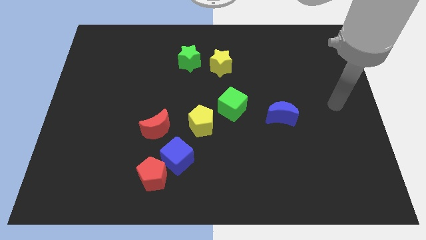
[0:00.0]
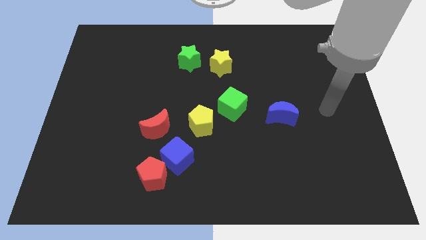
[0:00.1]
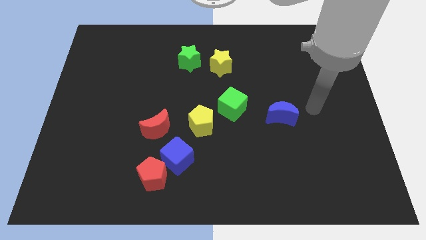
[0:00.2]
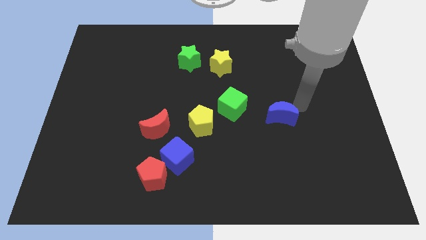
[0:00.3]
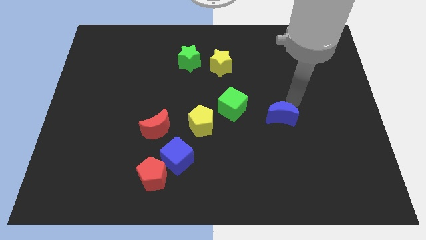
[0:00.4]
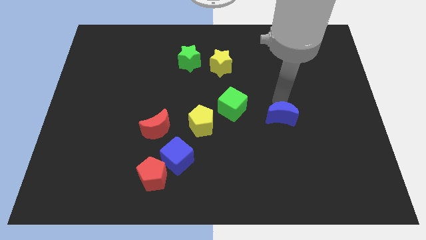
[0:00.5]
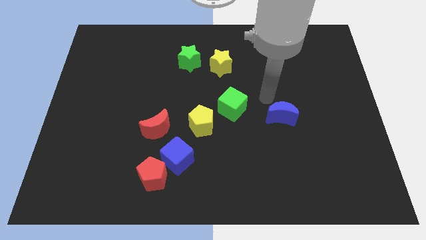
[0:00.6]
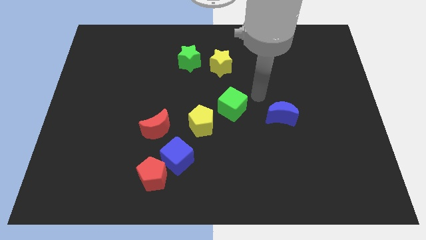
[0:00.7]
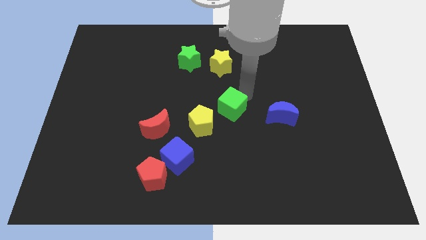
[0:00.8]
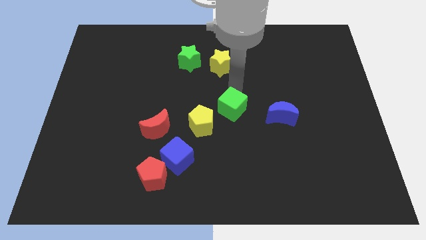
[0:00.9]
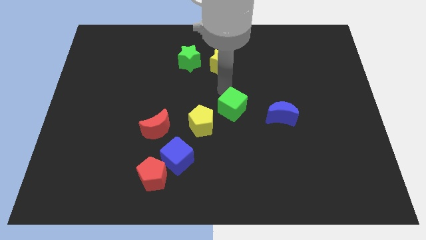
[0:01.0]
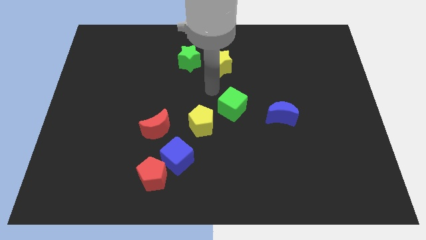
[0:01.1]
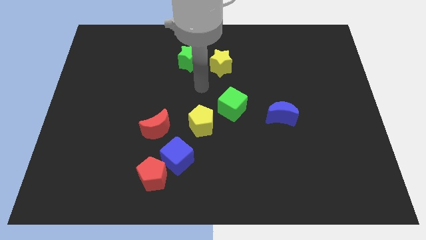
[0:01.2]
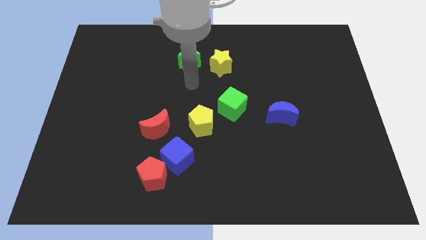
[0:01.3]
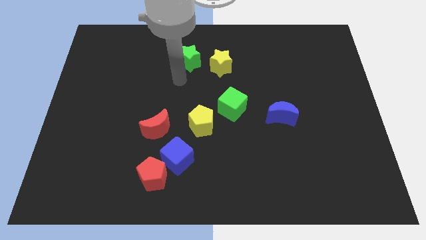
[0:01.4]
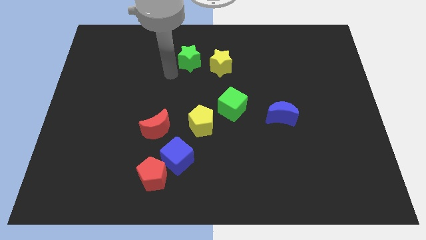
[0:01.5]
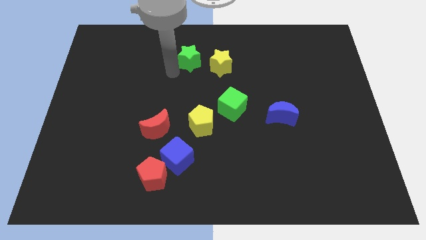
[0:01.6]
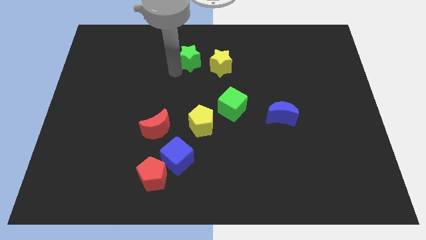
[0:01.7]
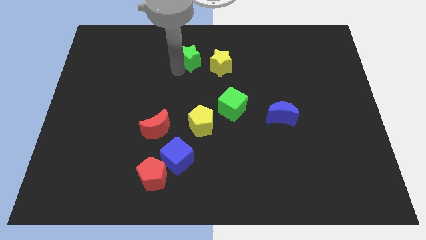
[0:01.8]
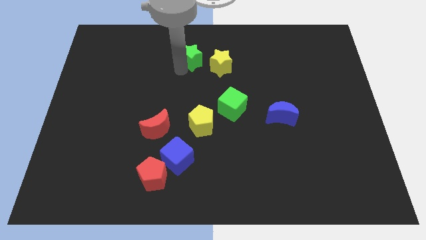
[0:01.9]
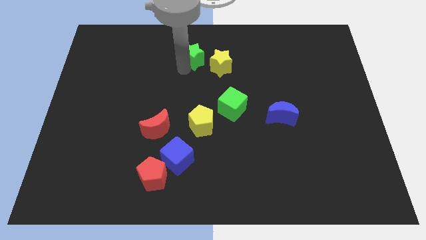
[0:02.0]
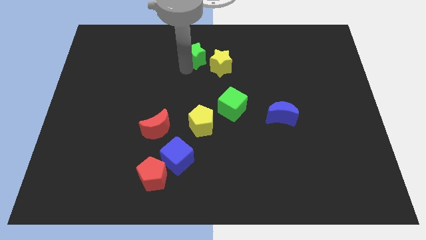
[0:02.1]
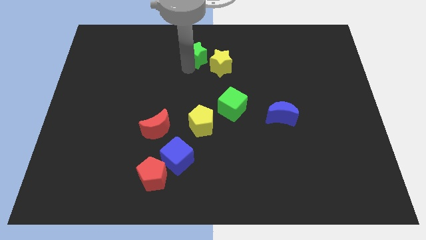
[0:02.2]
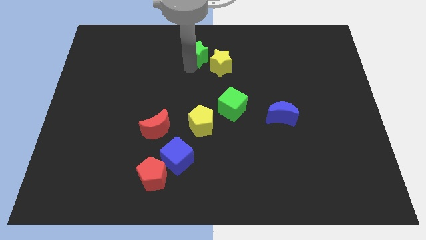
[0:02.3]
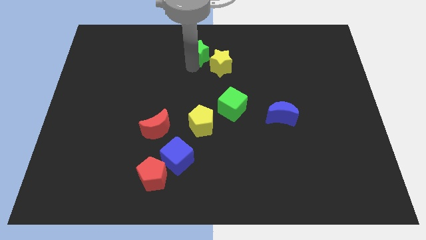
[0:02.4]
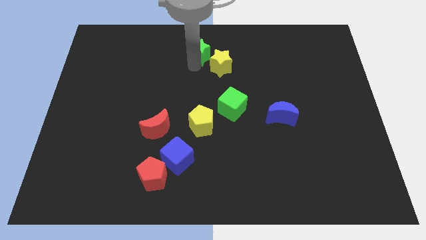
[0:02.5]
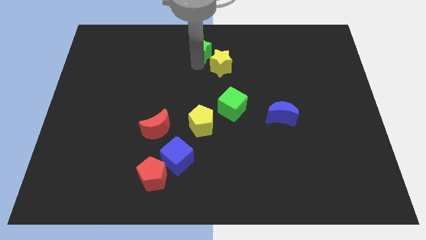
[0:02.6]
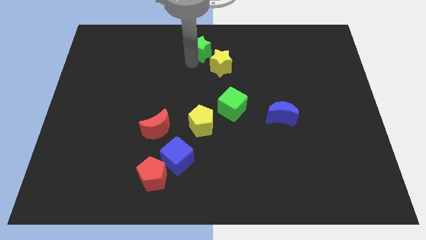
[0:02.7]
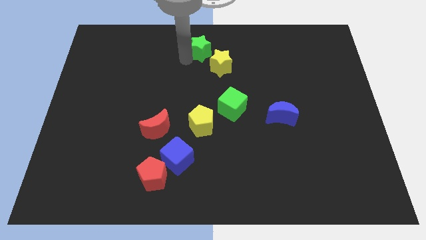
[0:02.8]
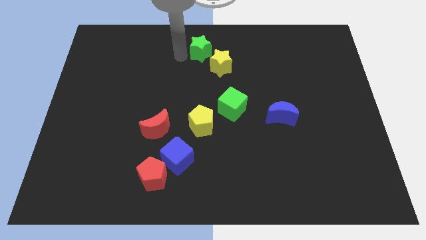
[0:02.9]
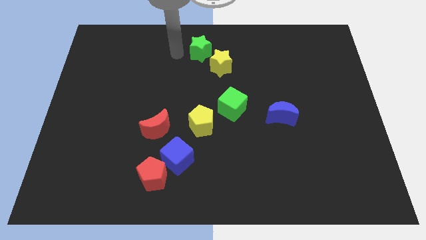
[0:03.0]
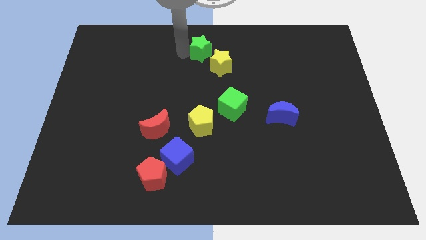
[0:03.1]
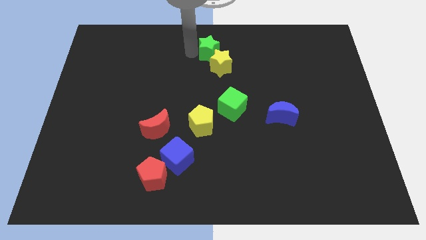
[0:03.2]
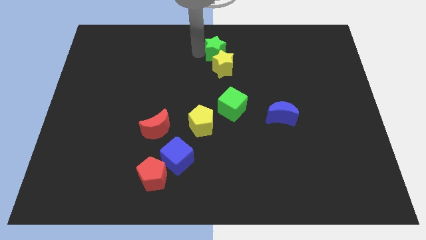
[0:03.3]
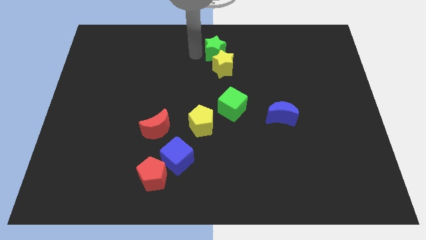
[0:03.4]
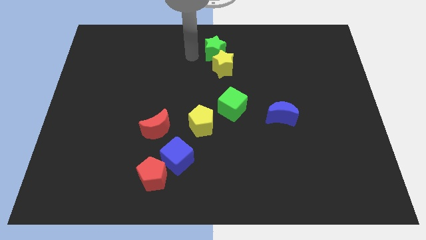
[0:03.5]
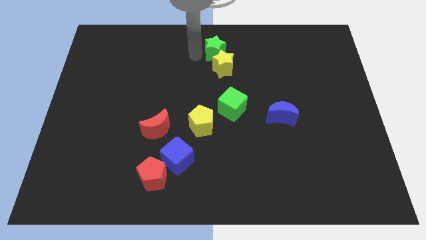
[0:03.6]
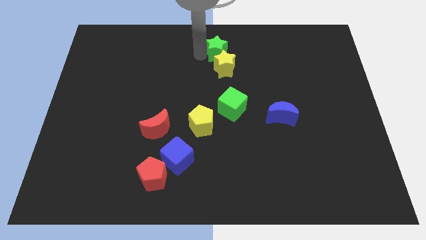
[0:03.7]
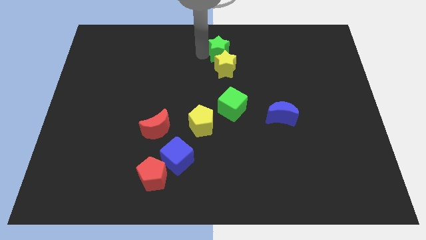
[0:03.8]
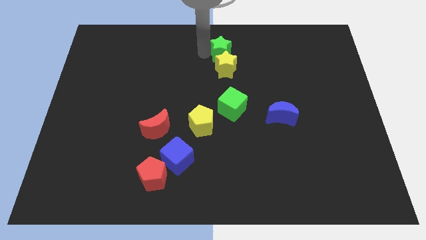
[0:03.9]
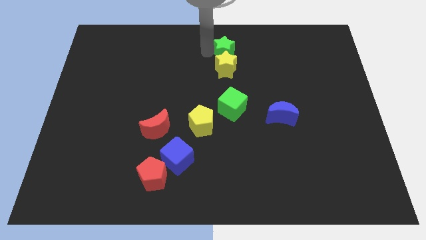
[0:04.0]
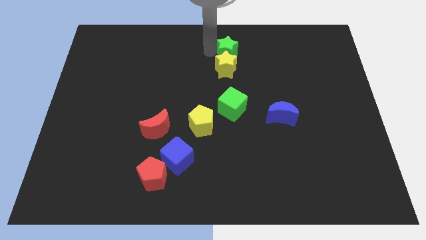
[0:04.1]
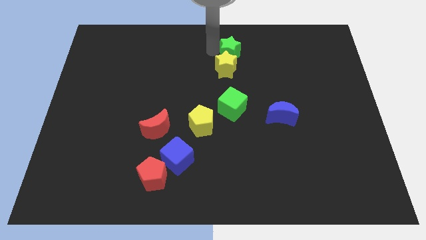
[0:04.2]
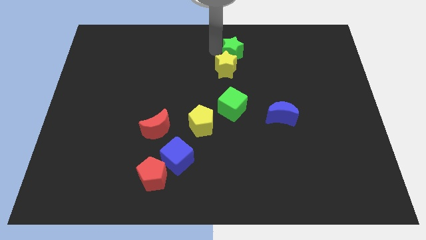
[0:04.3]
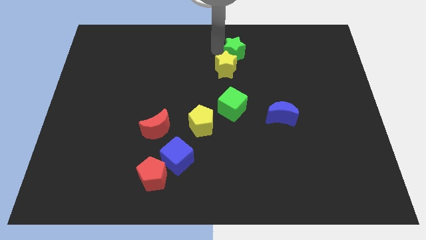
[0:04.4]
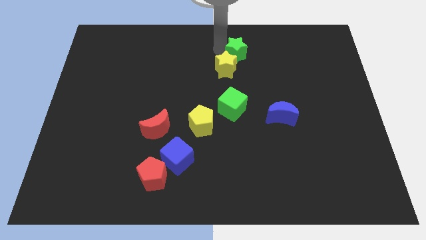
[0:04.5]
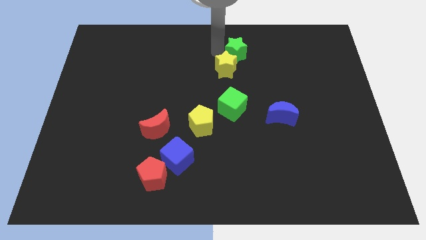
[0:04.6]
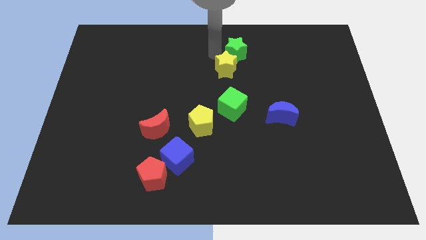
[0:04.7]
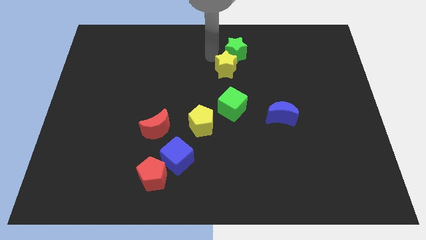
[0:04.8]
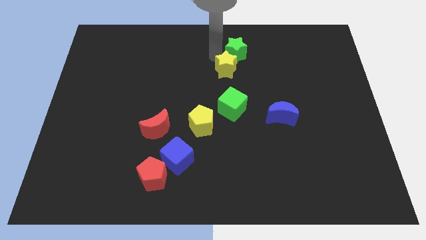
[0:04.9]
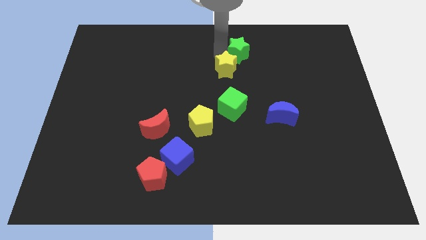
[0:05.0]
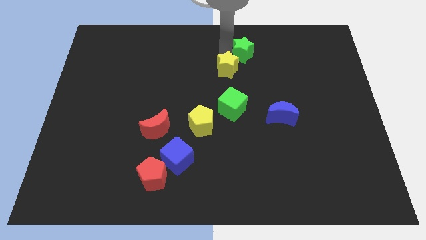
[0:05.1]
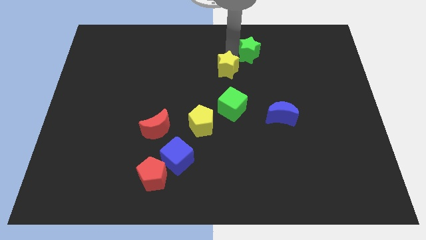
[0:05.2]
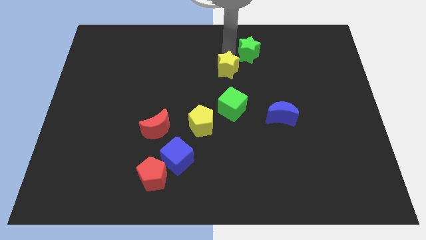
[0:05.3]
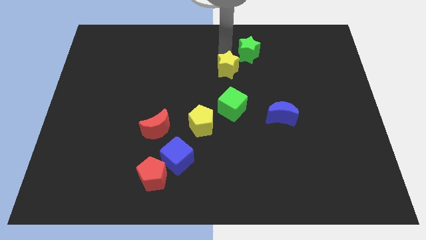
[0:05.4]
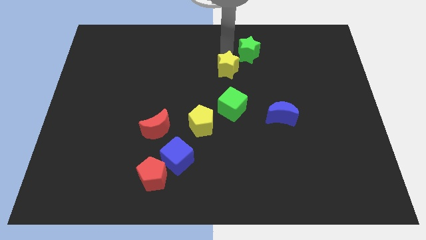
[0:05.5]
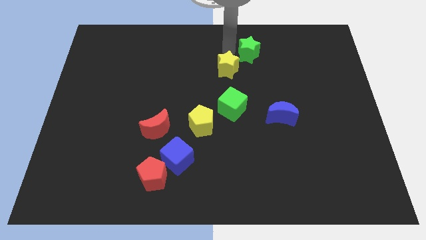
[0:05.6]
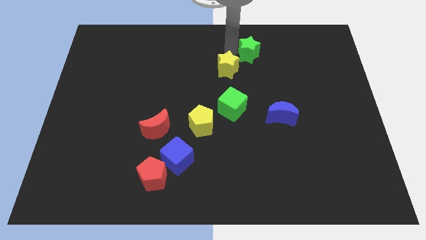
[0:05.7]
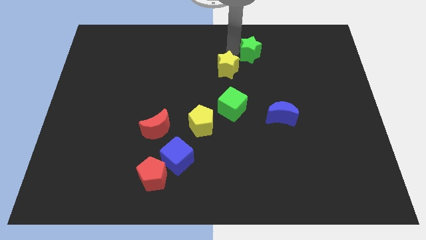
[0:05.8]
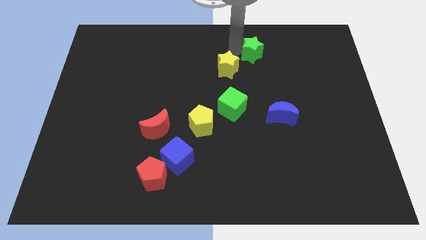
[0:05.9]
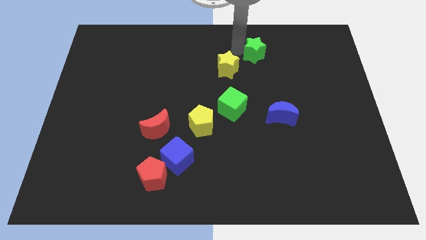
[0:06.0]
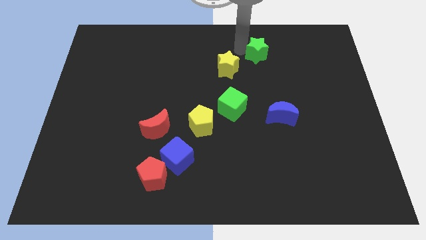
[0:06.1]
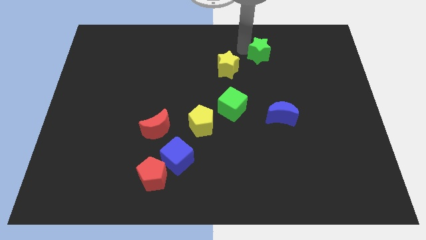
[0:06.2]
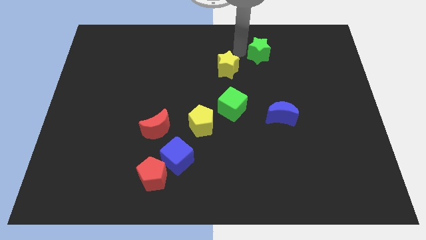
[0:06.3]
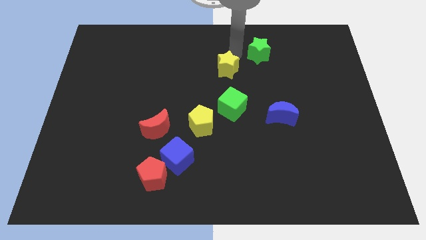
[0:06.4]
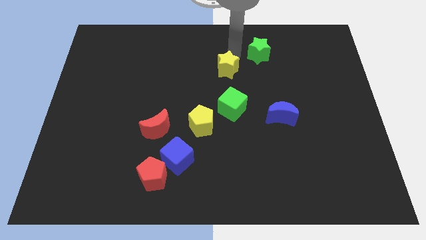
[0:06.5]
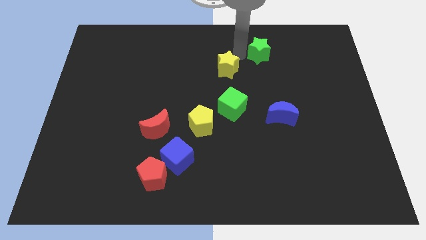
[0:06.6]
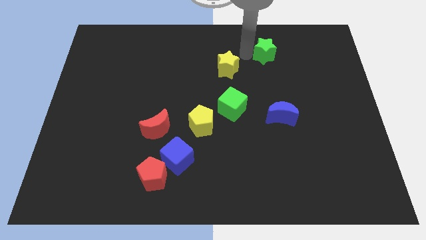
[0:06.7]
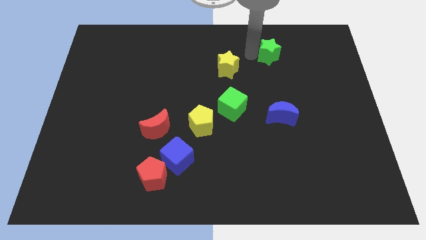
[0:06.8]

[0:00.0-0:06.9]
push the green star to the right

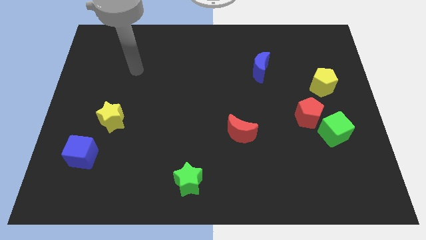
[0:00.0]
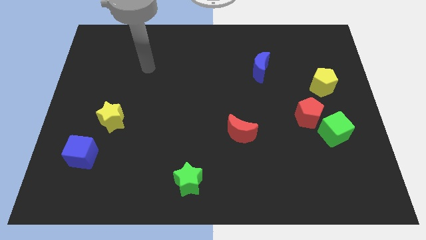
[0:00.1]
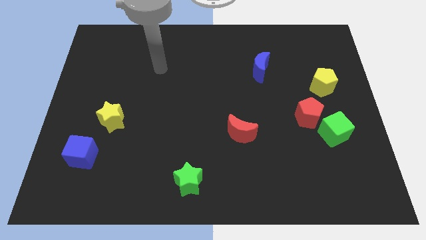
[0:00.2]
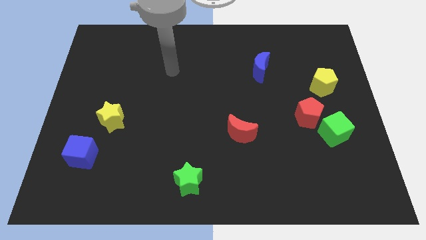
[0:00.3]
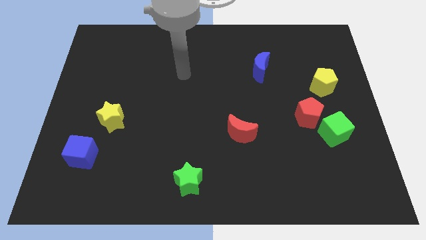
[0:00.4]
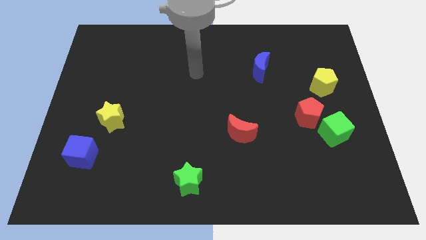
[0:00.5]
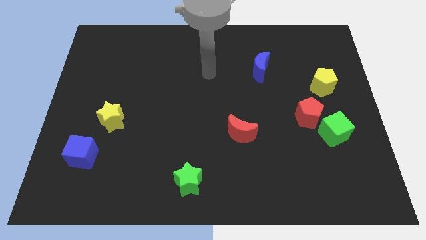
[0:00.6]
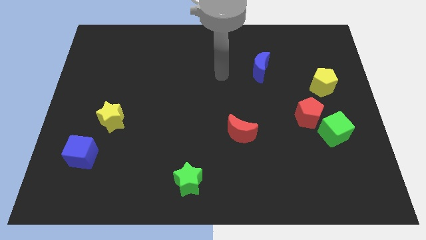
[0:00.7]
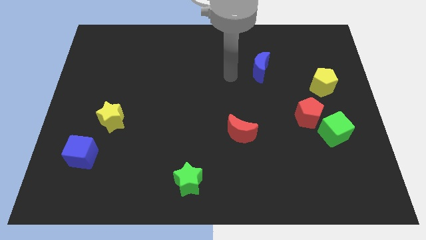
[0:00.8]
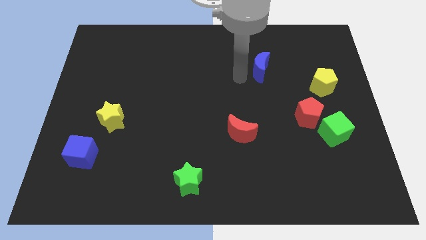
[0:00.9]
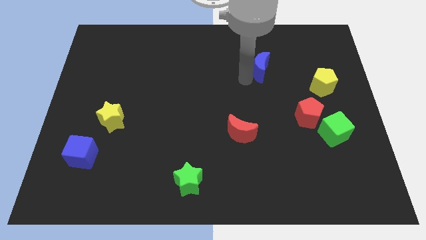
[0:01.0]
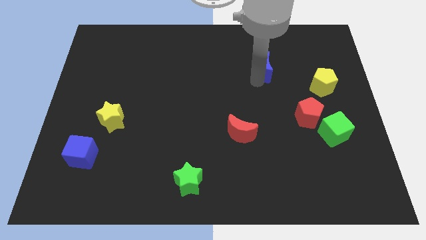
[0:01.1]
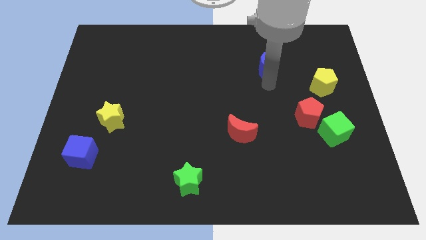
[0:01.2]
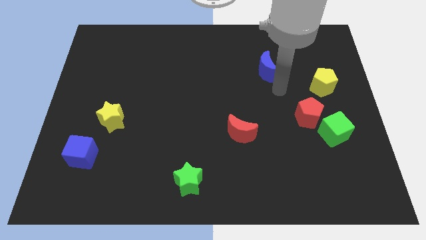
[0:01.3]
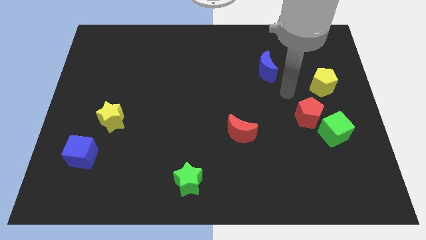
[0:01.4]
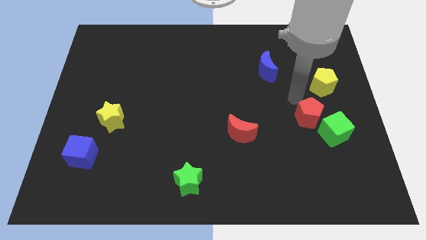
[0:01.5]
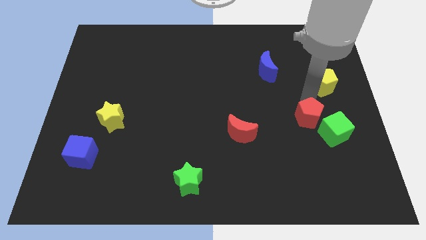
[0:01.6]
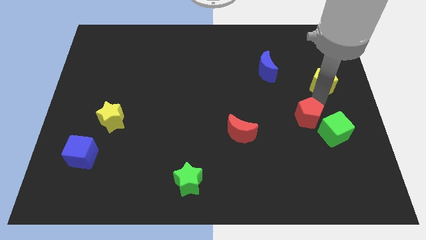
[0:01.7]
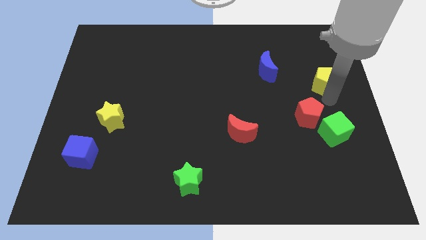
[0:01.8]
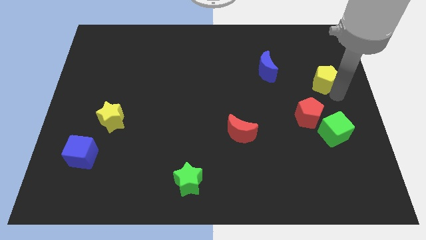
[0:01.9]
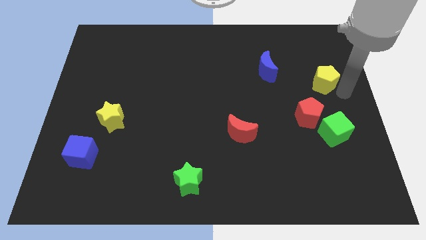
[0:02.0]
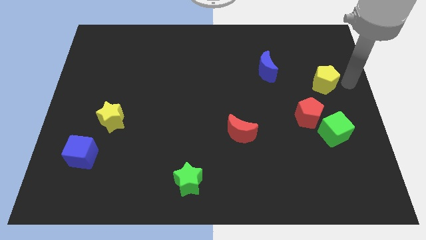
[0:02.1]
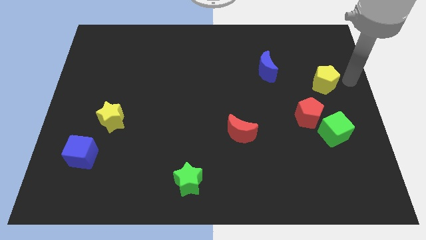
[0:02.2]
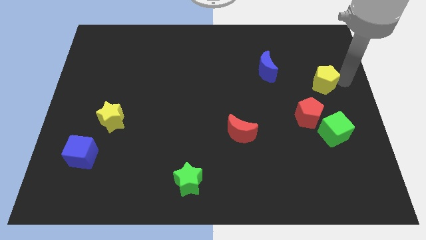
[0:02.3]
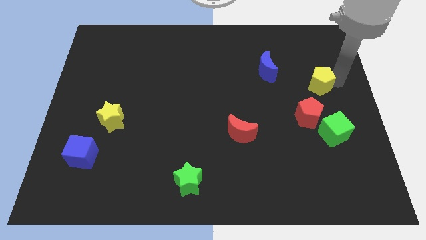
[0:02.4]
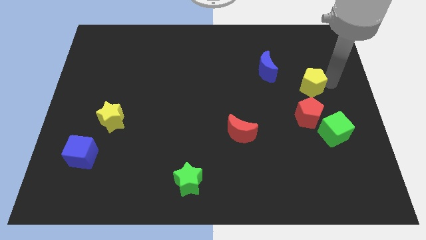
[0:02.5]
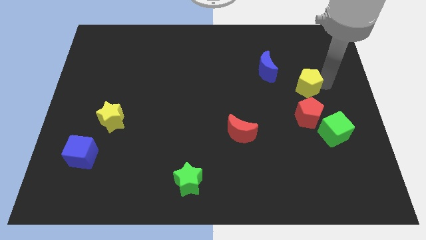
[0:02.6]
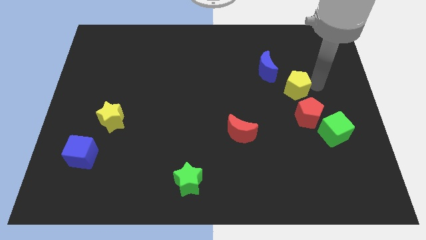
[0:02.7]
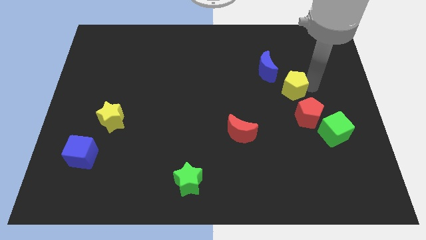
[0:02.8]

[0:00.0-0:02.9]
slightly push the yellow pentagon to the left
